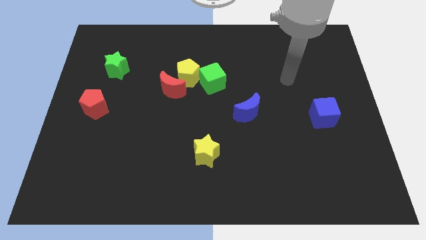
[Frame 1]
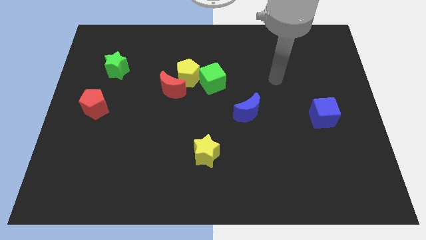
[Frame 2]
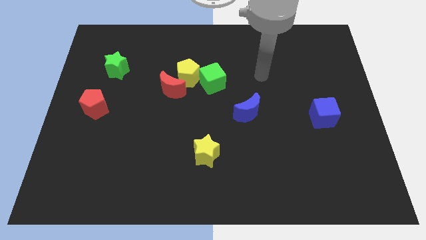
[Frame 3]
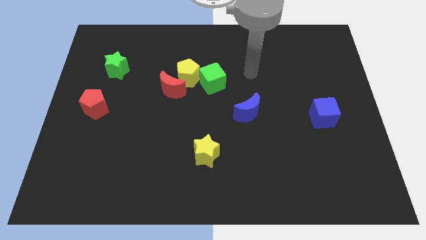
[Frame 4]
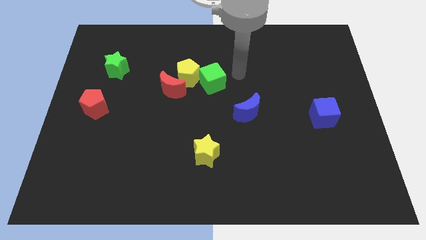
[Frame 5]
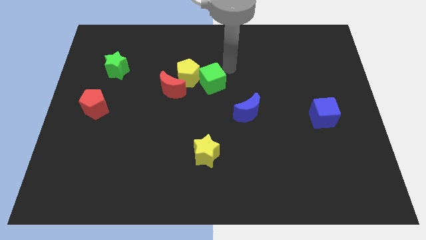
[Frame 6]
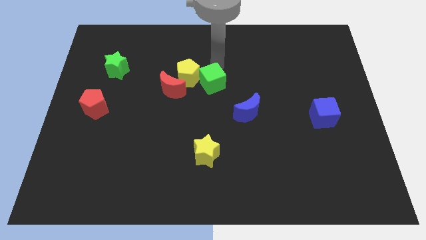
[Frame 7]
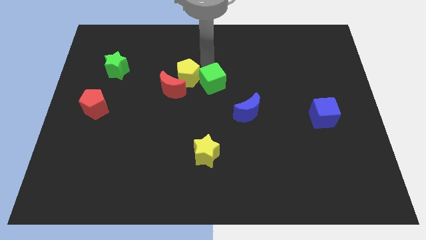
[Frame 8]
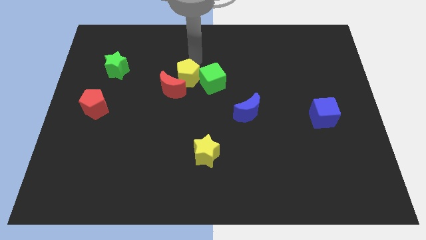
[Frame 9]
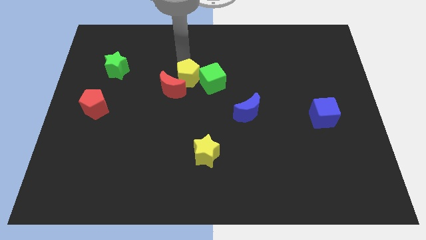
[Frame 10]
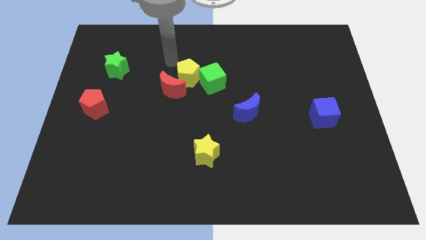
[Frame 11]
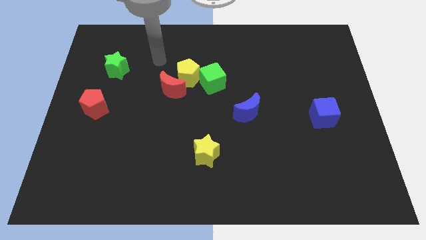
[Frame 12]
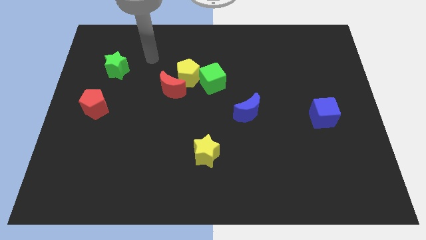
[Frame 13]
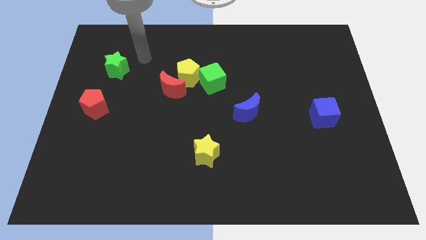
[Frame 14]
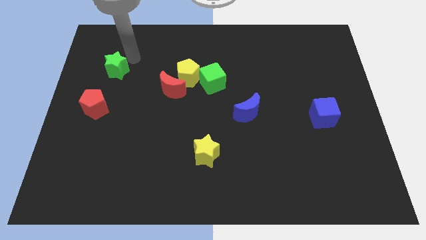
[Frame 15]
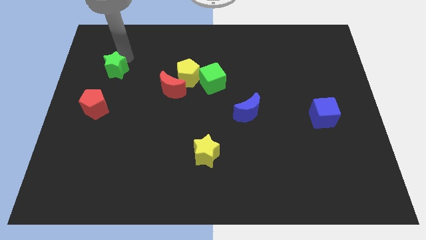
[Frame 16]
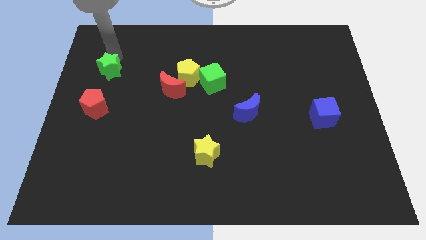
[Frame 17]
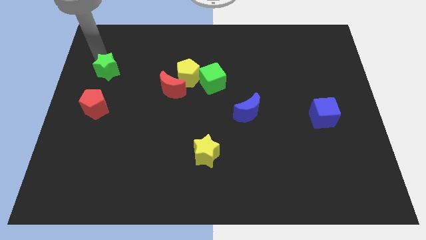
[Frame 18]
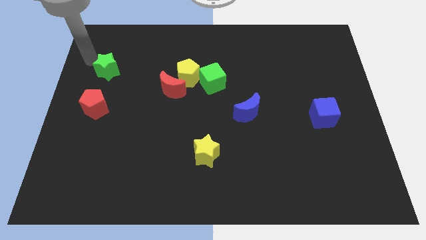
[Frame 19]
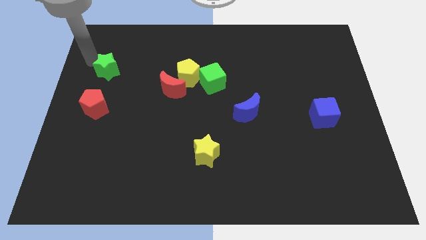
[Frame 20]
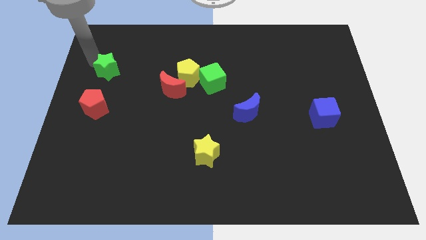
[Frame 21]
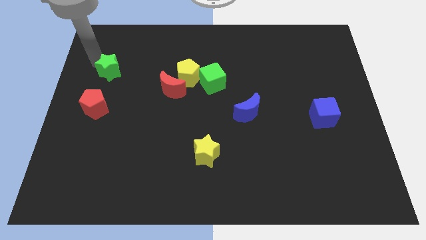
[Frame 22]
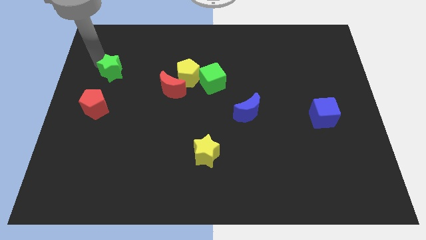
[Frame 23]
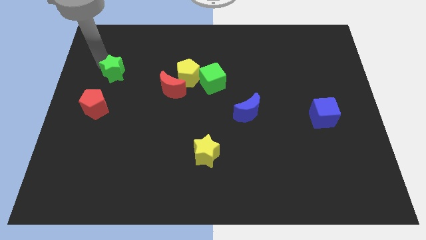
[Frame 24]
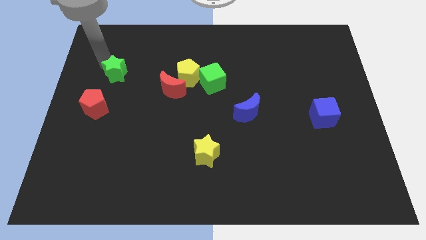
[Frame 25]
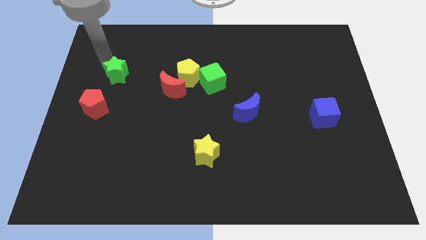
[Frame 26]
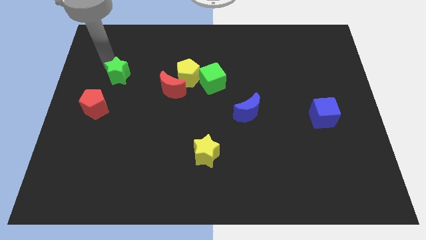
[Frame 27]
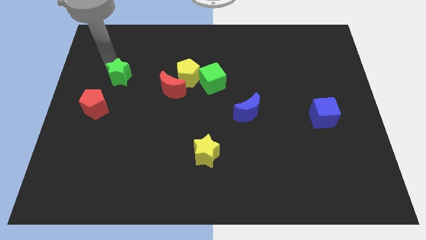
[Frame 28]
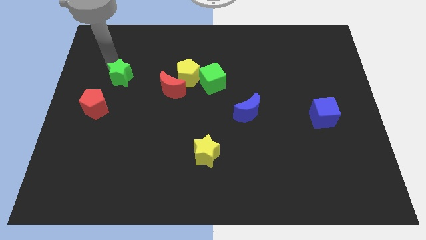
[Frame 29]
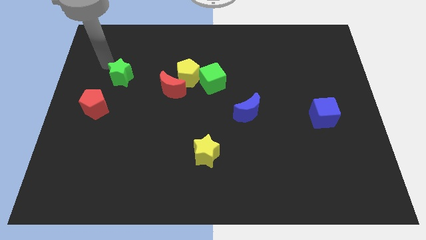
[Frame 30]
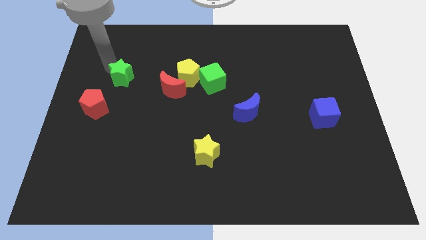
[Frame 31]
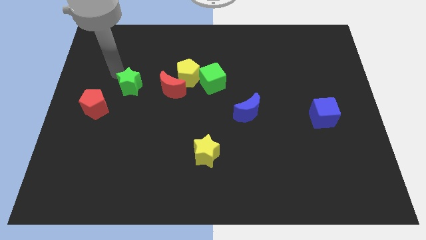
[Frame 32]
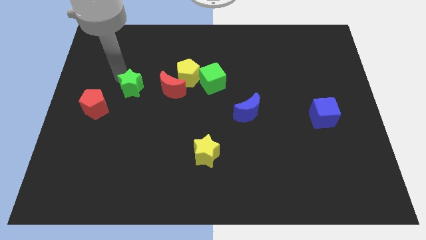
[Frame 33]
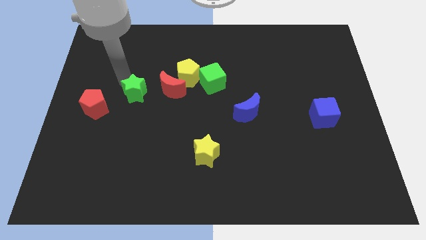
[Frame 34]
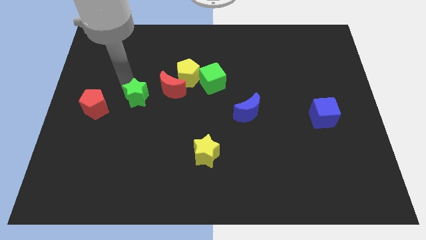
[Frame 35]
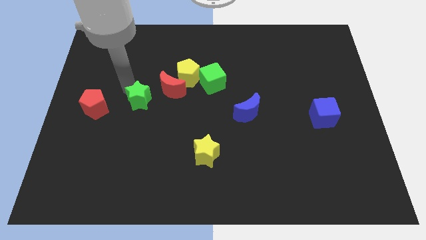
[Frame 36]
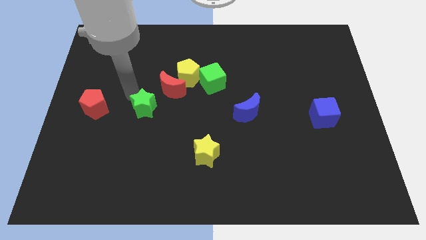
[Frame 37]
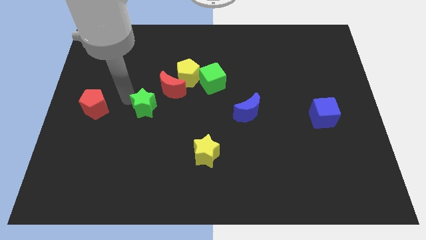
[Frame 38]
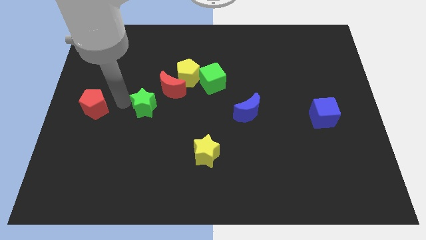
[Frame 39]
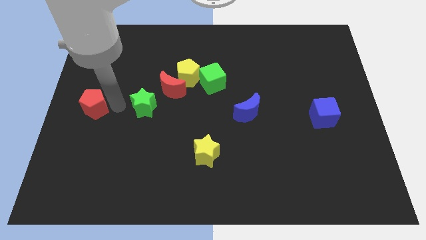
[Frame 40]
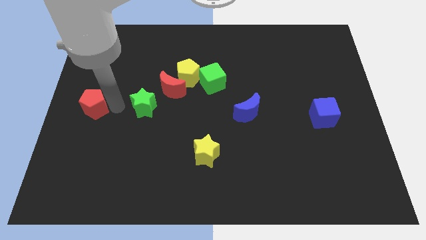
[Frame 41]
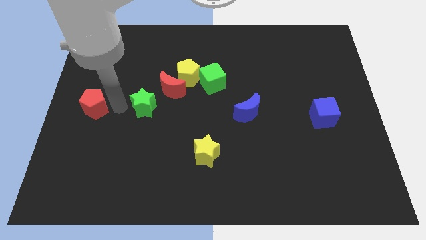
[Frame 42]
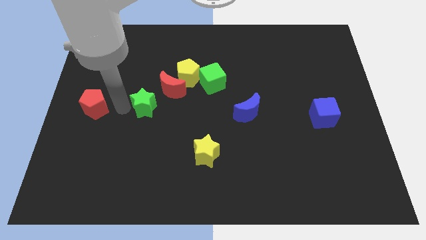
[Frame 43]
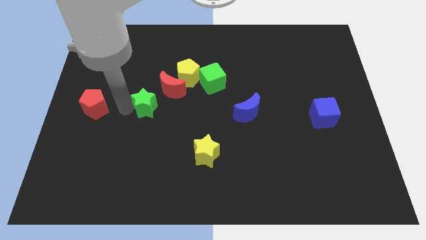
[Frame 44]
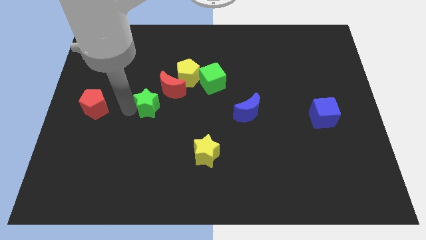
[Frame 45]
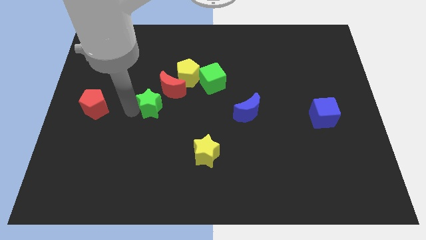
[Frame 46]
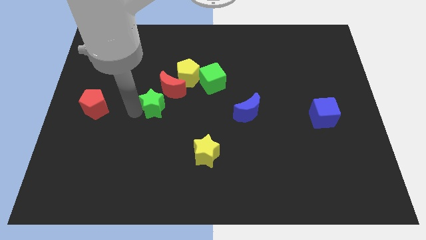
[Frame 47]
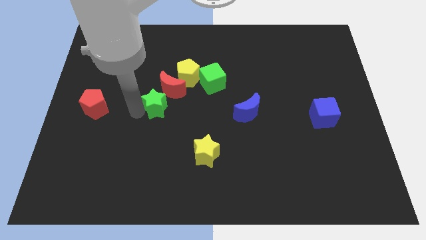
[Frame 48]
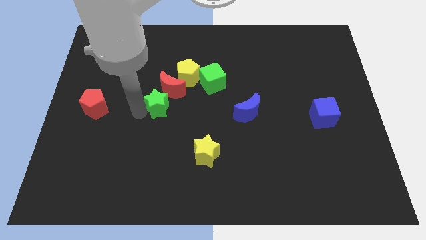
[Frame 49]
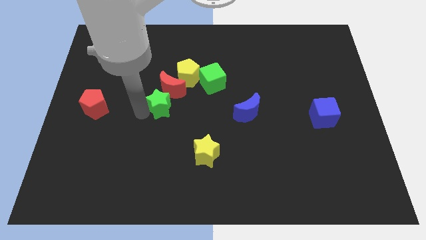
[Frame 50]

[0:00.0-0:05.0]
push the green star to the center of the board

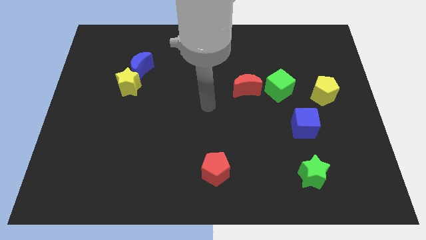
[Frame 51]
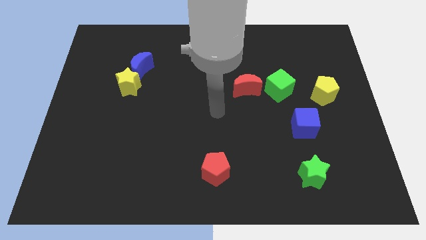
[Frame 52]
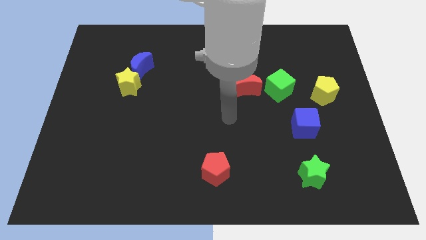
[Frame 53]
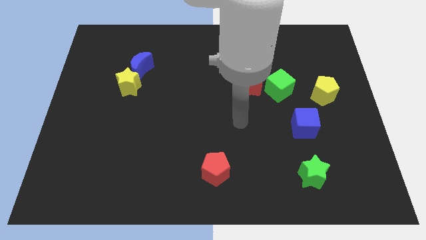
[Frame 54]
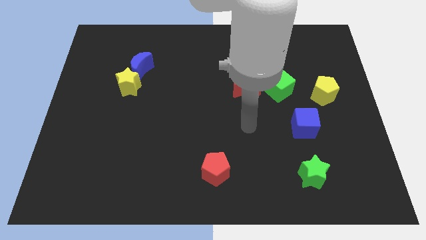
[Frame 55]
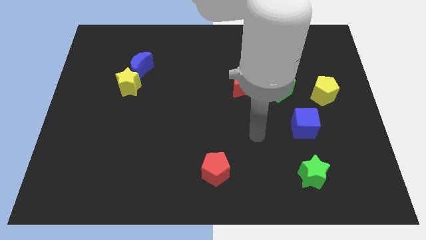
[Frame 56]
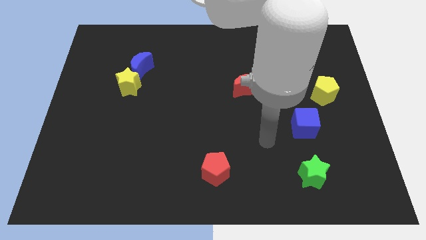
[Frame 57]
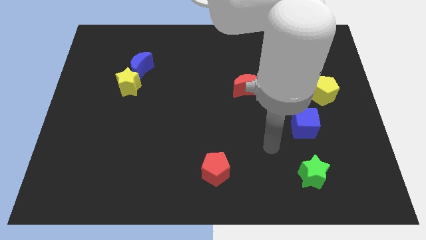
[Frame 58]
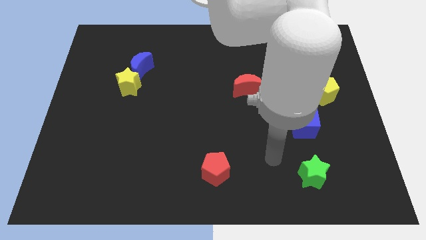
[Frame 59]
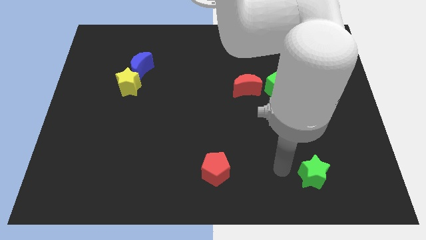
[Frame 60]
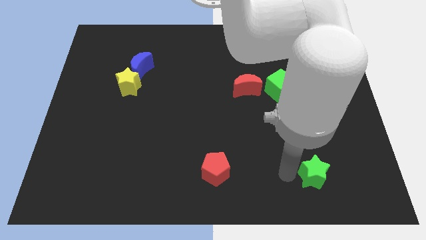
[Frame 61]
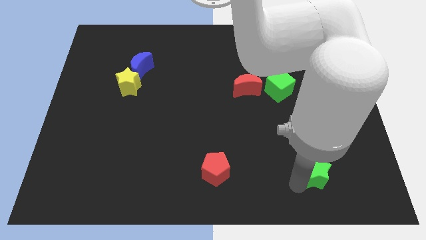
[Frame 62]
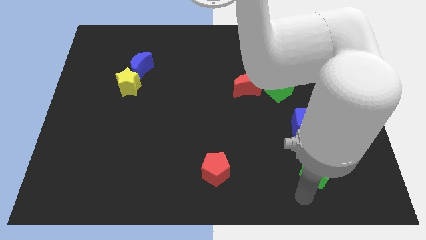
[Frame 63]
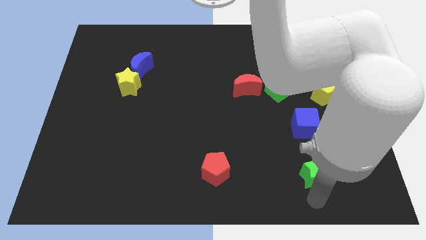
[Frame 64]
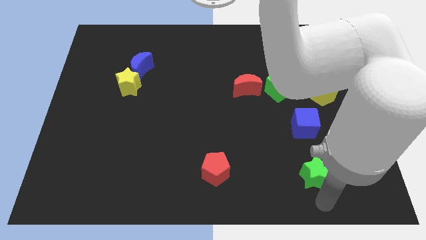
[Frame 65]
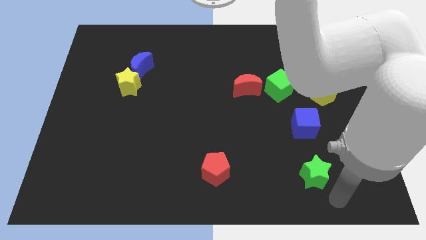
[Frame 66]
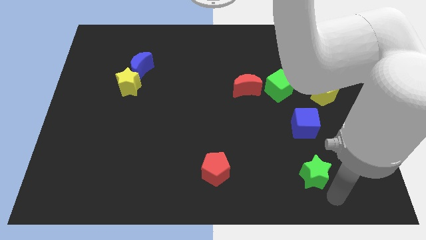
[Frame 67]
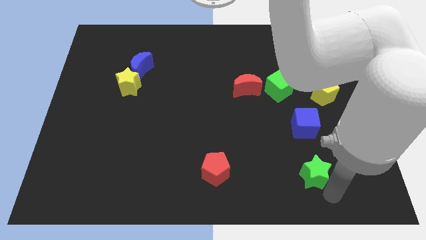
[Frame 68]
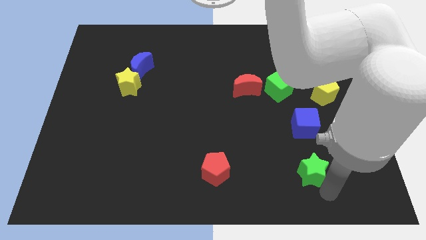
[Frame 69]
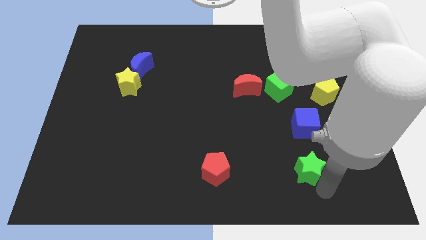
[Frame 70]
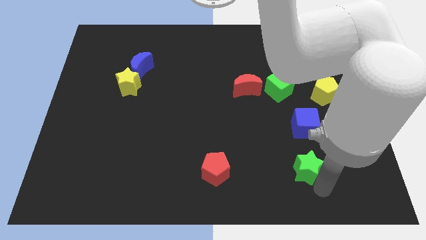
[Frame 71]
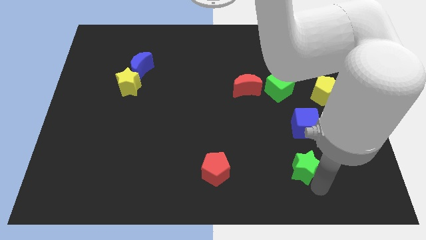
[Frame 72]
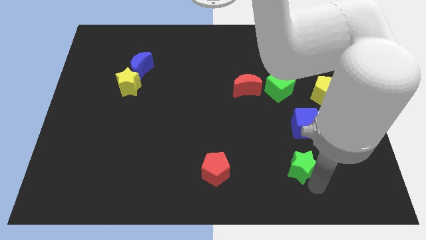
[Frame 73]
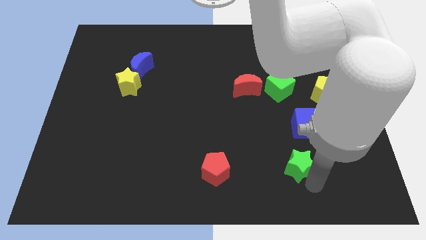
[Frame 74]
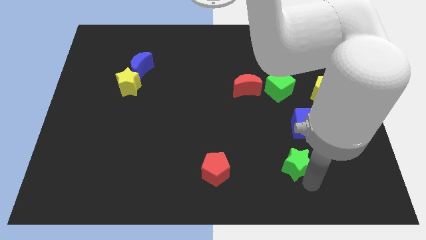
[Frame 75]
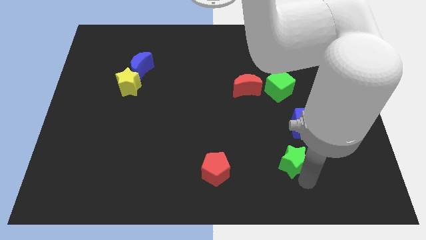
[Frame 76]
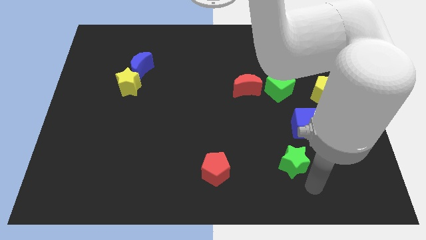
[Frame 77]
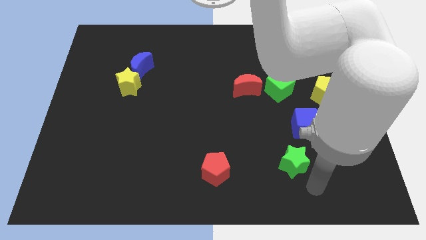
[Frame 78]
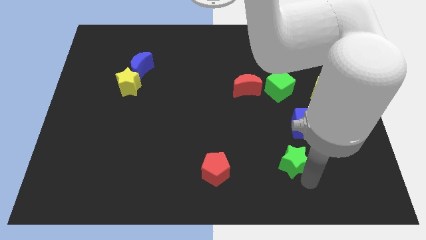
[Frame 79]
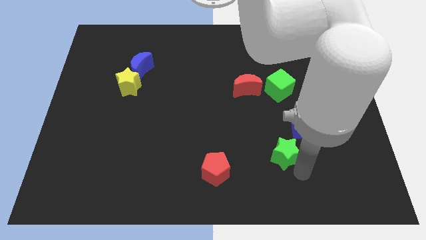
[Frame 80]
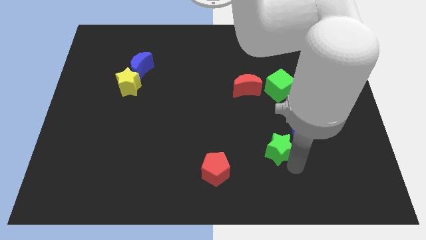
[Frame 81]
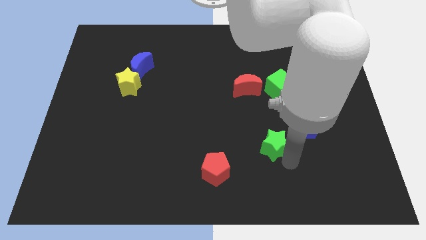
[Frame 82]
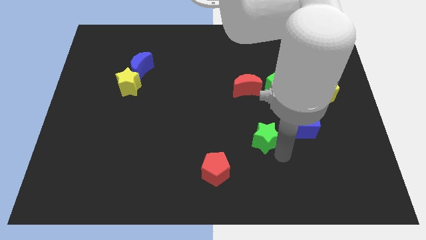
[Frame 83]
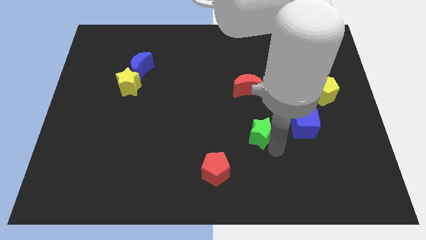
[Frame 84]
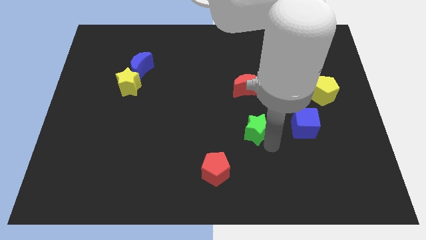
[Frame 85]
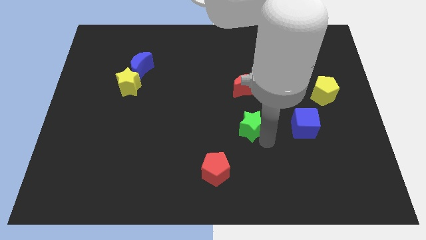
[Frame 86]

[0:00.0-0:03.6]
move the green star to the center
